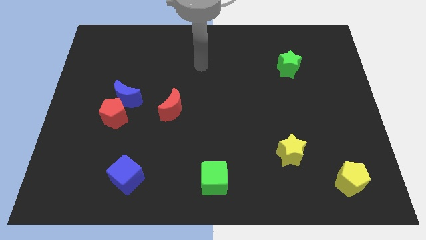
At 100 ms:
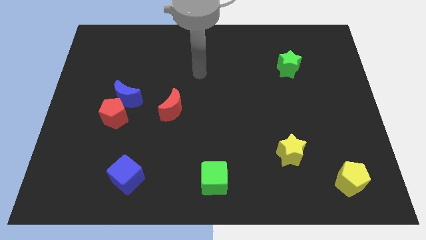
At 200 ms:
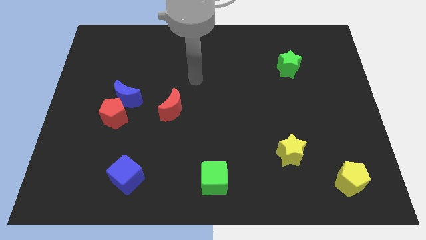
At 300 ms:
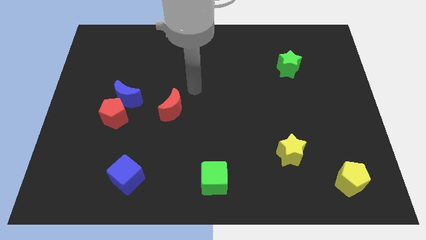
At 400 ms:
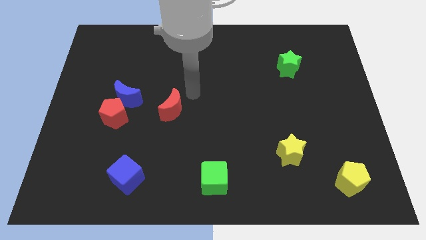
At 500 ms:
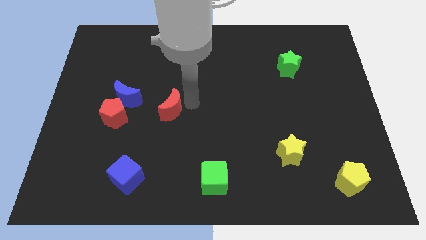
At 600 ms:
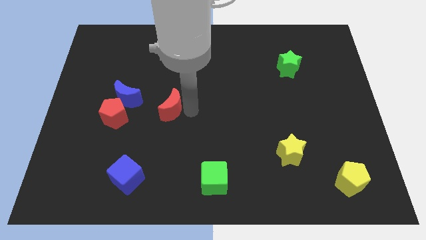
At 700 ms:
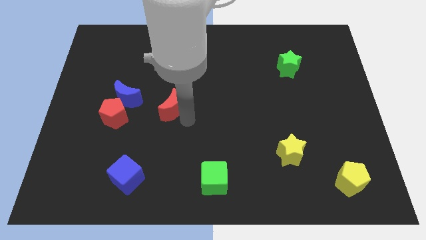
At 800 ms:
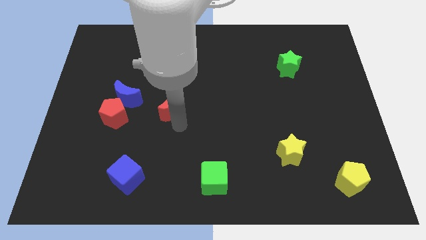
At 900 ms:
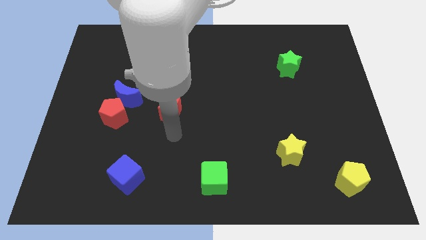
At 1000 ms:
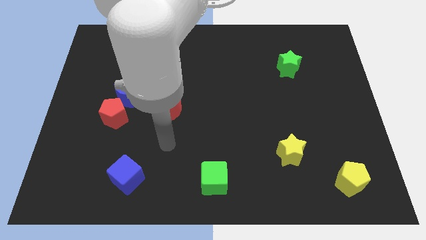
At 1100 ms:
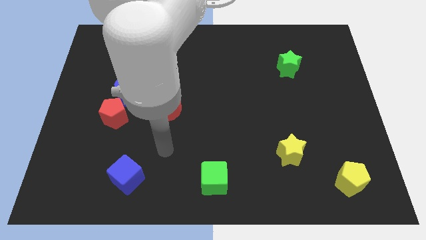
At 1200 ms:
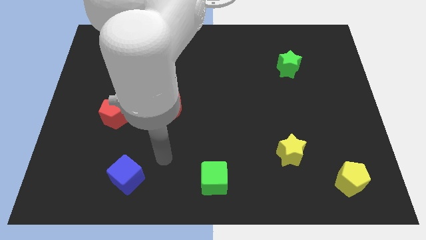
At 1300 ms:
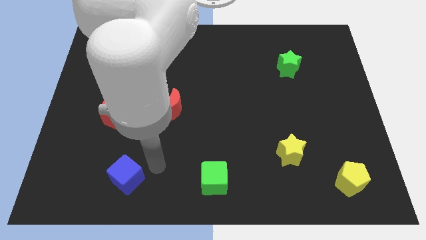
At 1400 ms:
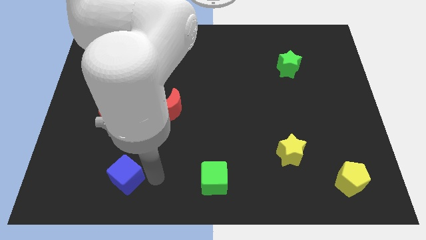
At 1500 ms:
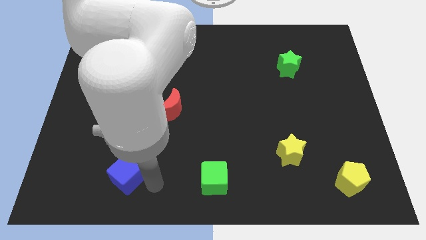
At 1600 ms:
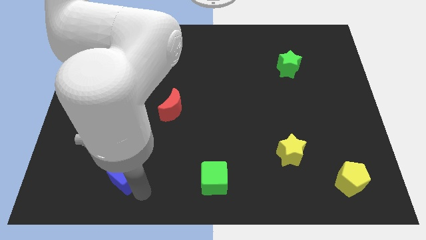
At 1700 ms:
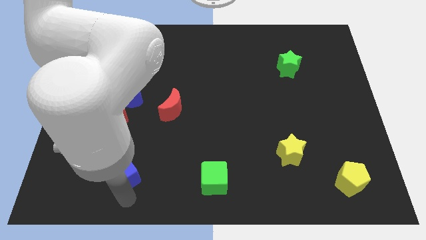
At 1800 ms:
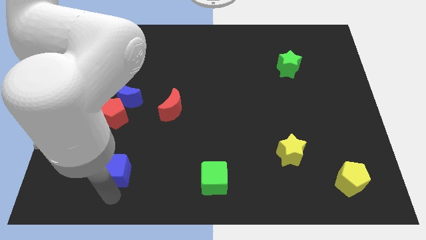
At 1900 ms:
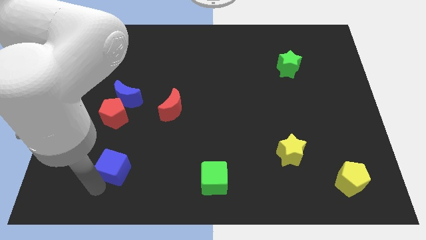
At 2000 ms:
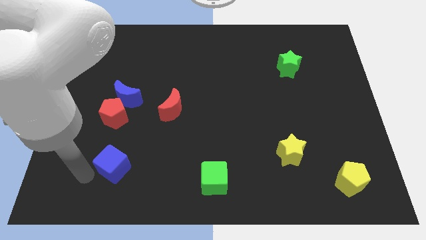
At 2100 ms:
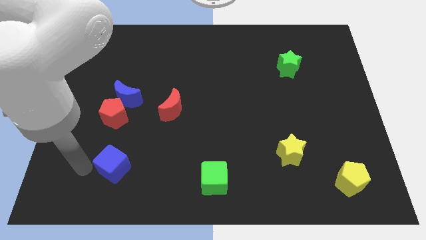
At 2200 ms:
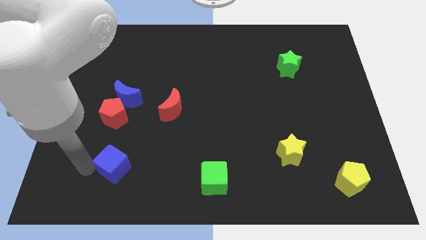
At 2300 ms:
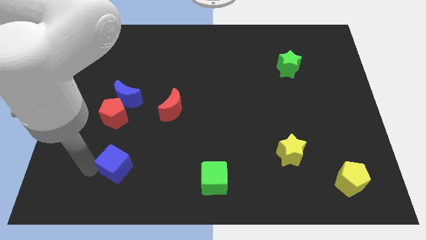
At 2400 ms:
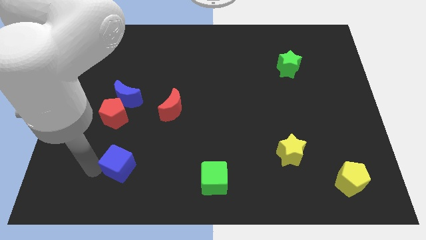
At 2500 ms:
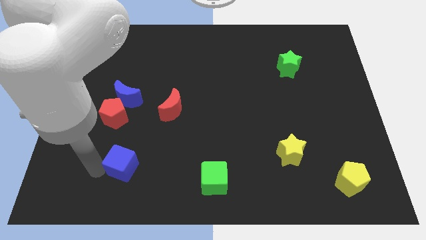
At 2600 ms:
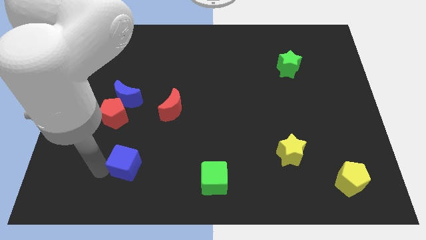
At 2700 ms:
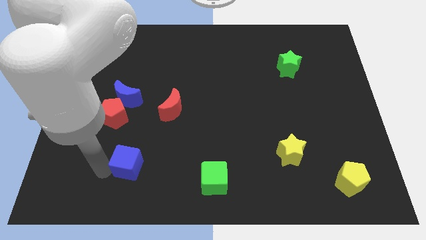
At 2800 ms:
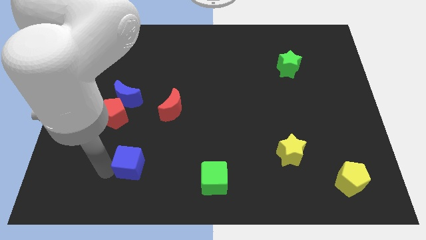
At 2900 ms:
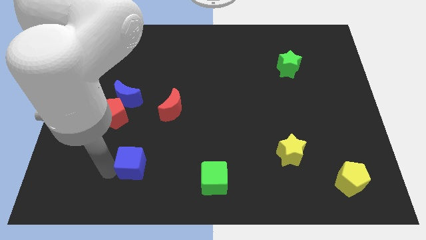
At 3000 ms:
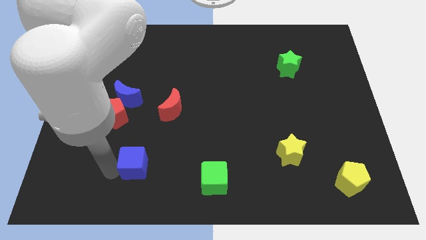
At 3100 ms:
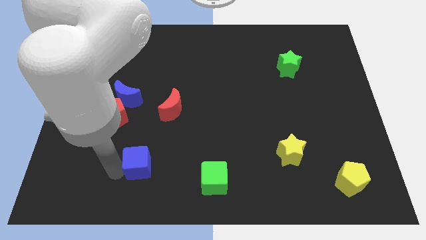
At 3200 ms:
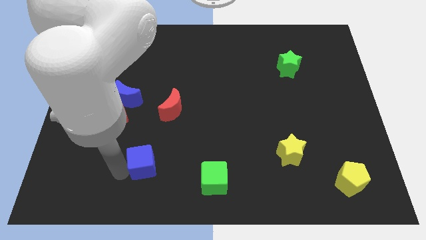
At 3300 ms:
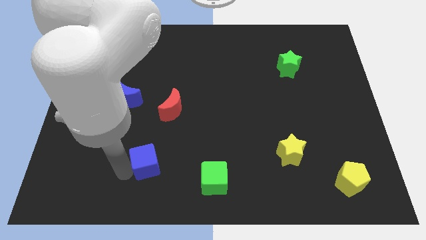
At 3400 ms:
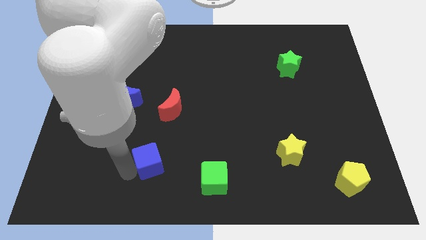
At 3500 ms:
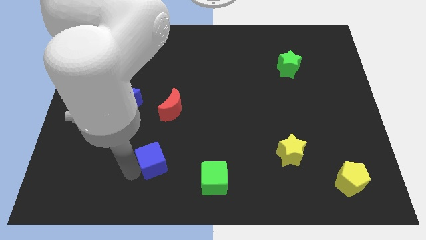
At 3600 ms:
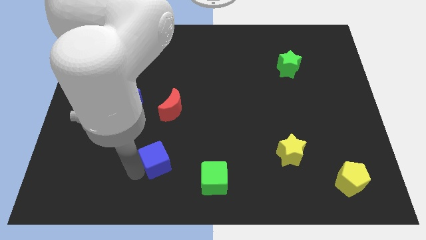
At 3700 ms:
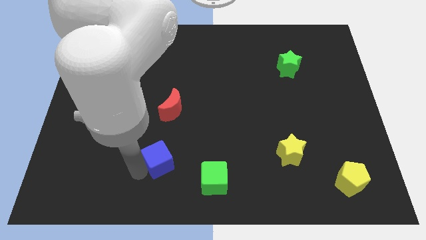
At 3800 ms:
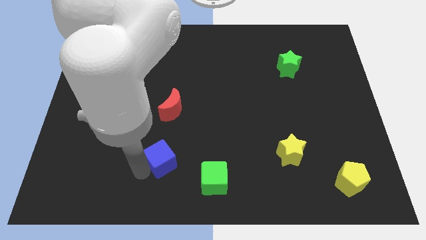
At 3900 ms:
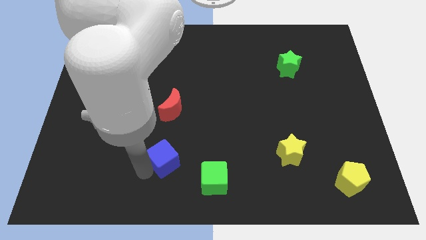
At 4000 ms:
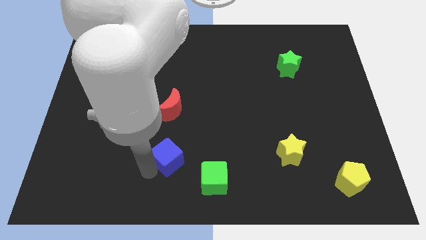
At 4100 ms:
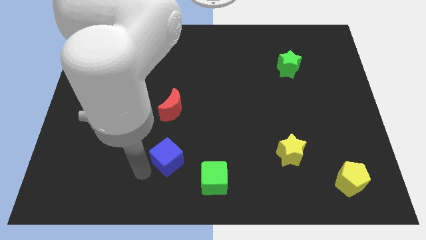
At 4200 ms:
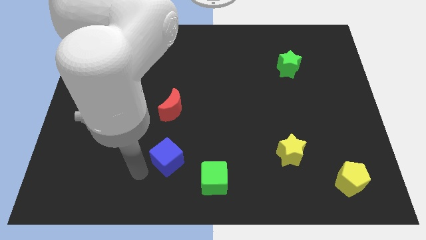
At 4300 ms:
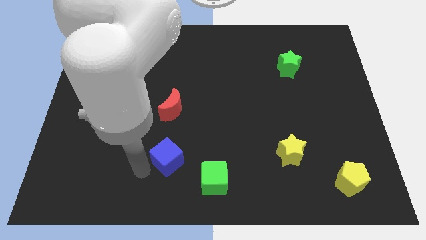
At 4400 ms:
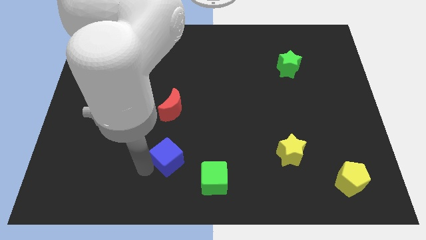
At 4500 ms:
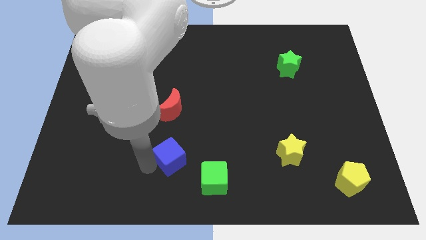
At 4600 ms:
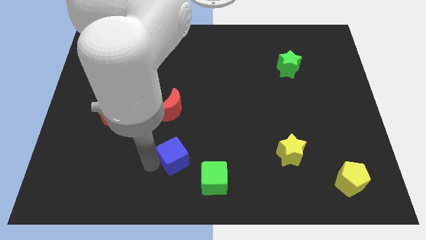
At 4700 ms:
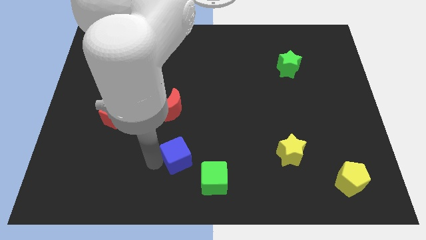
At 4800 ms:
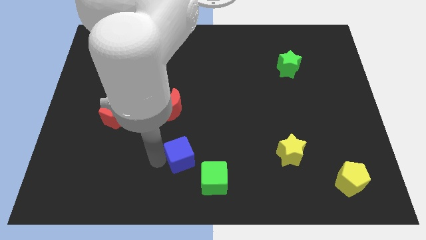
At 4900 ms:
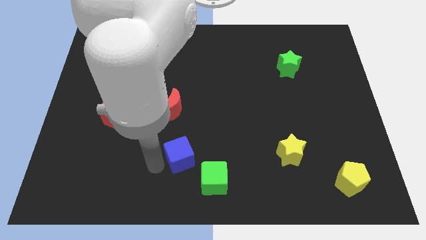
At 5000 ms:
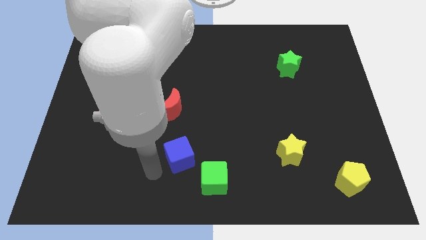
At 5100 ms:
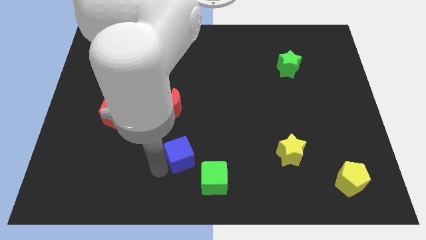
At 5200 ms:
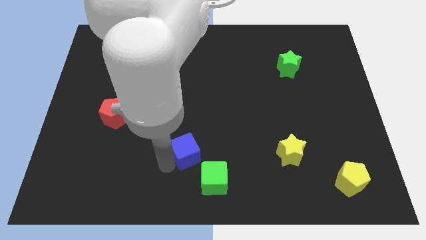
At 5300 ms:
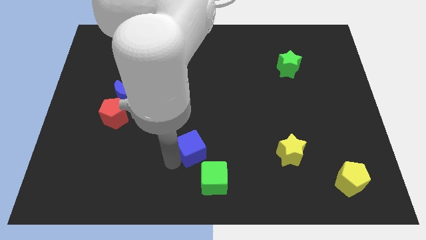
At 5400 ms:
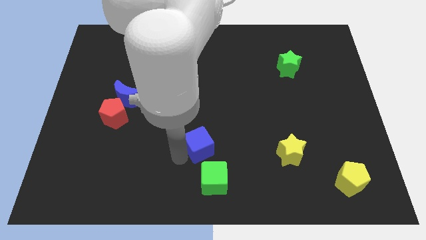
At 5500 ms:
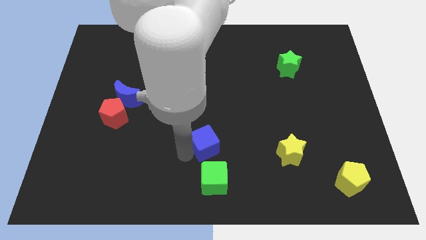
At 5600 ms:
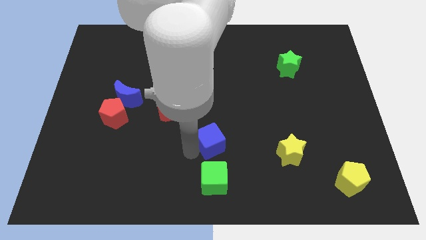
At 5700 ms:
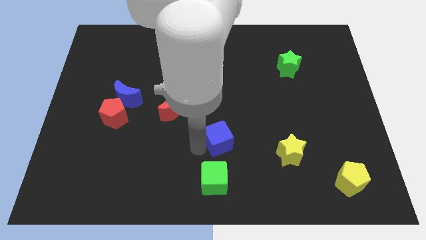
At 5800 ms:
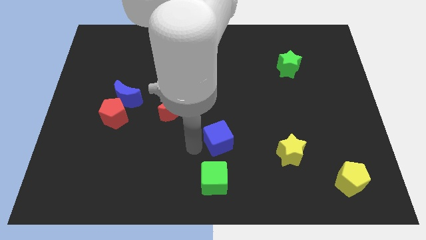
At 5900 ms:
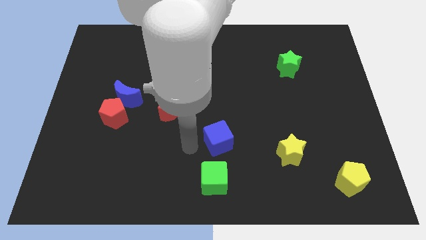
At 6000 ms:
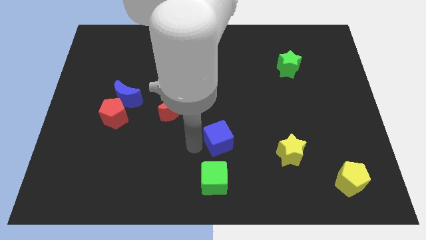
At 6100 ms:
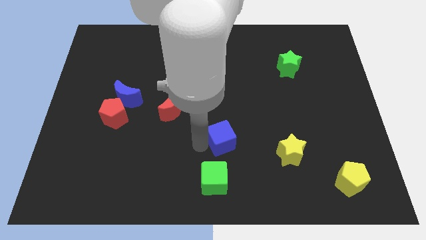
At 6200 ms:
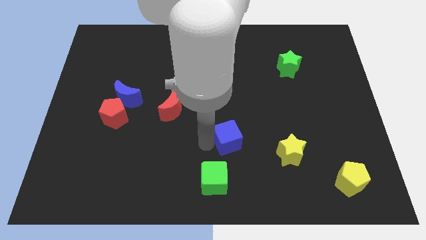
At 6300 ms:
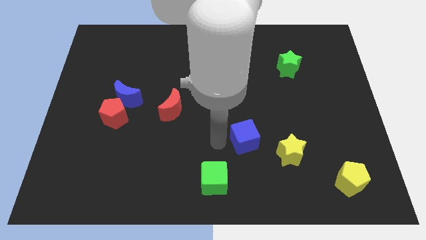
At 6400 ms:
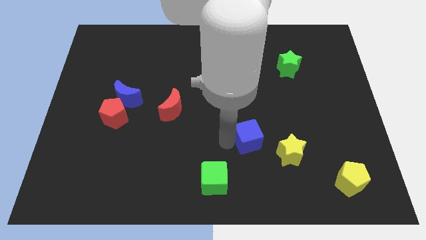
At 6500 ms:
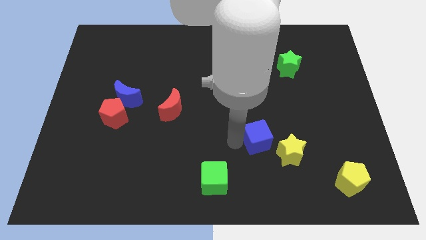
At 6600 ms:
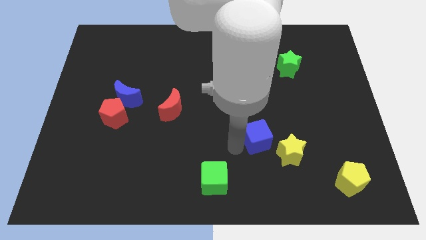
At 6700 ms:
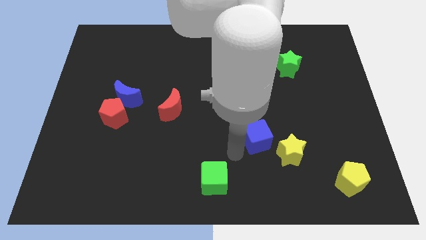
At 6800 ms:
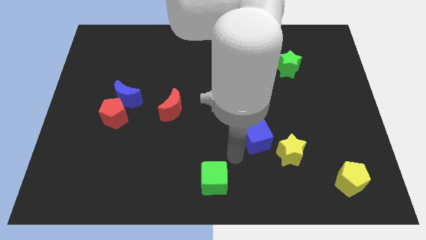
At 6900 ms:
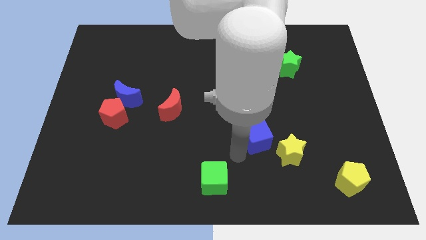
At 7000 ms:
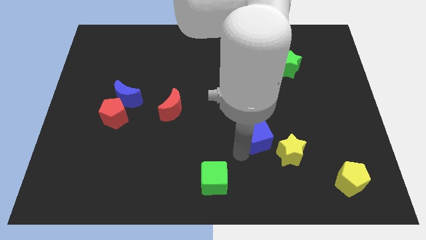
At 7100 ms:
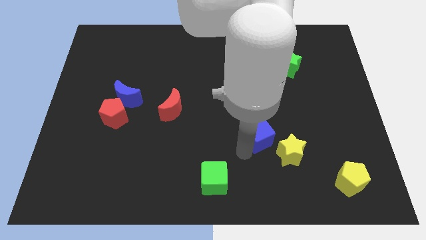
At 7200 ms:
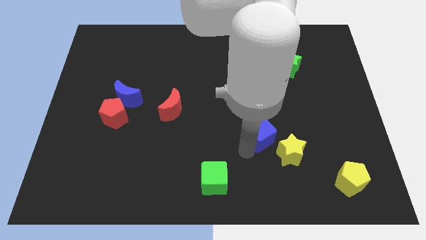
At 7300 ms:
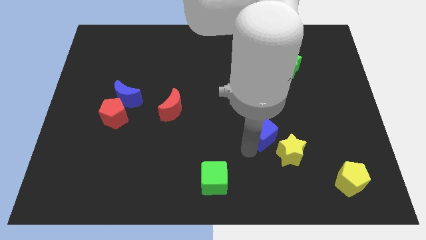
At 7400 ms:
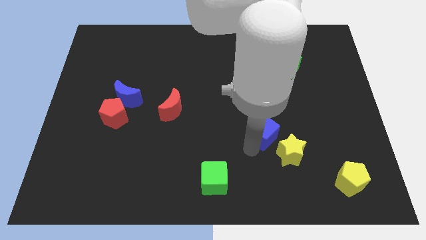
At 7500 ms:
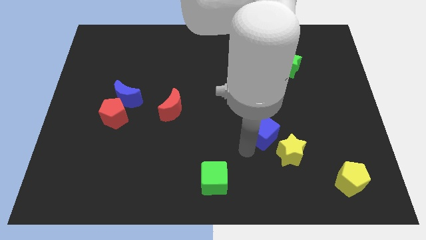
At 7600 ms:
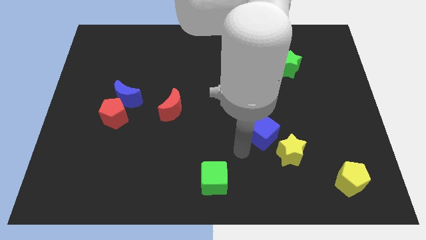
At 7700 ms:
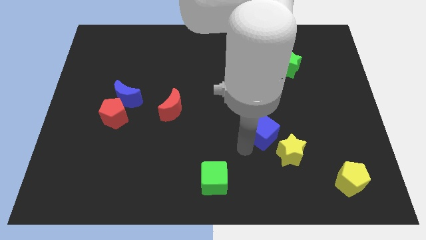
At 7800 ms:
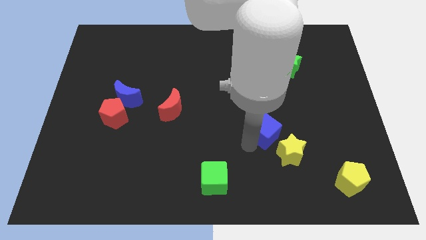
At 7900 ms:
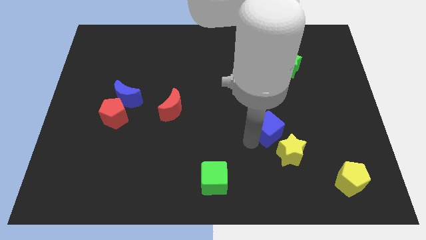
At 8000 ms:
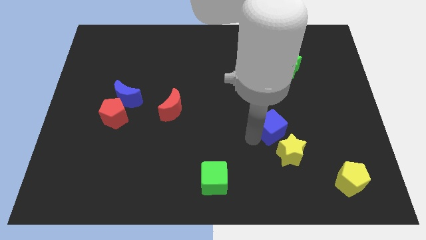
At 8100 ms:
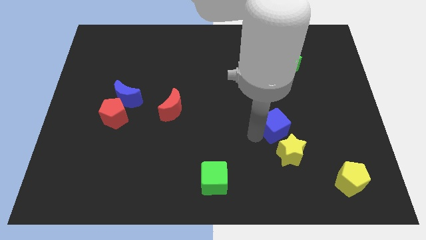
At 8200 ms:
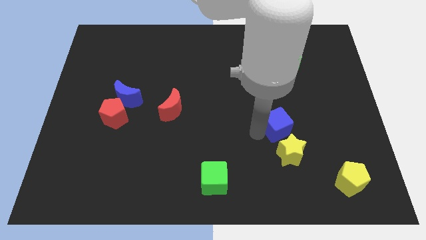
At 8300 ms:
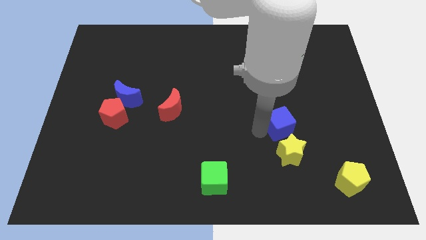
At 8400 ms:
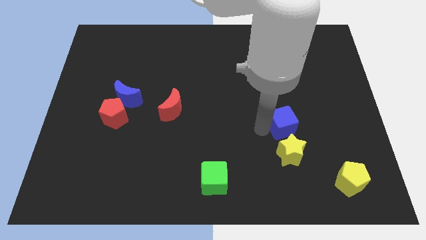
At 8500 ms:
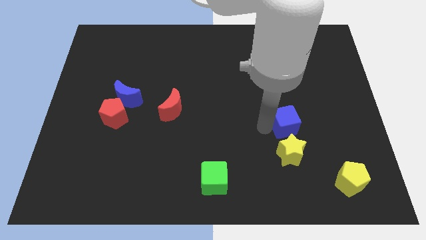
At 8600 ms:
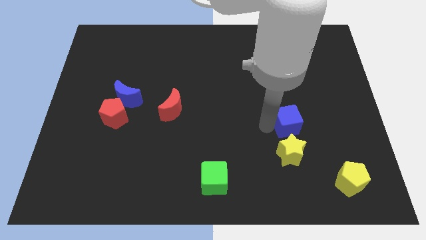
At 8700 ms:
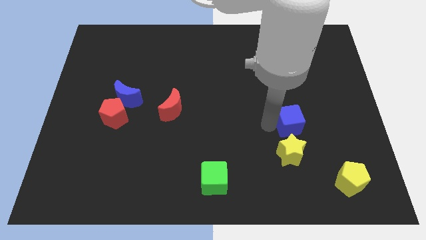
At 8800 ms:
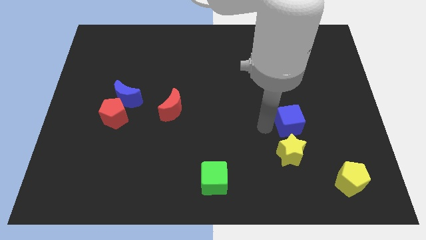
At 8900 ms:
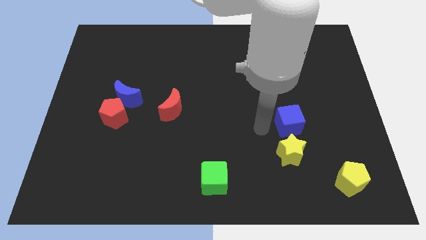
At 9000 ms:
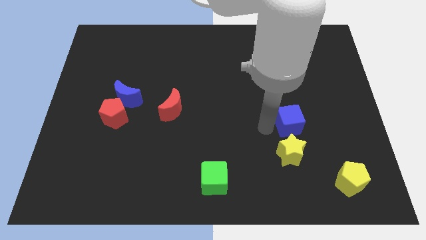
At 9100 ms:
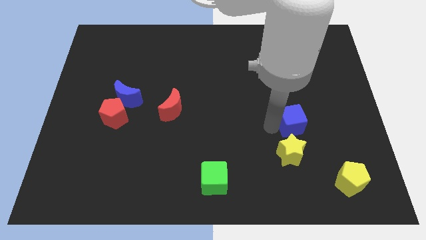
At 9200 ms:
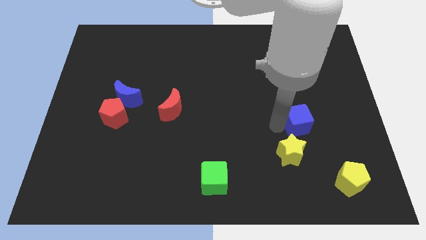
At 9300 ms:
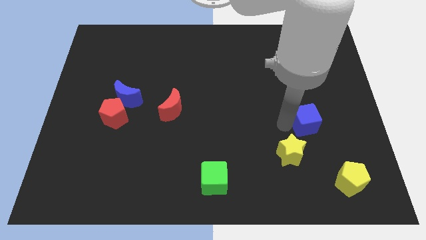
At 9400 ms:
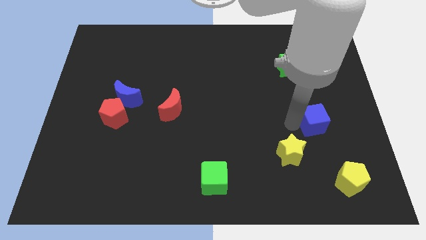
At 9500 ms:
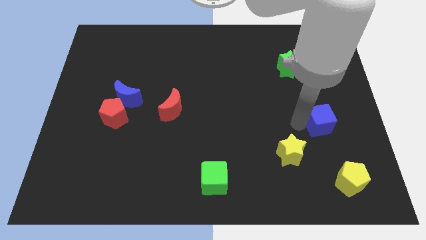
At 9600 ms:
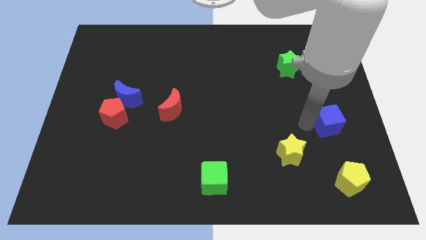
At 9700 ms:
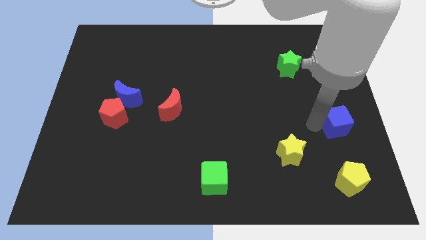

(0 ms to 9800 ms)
slide the blue cube to the right side
